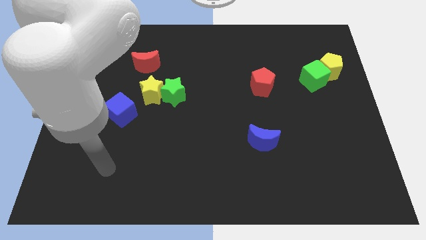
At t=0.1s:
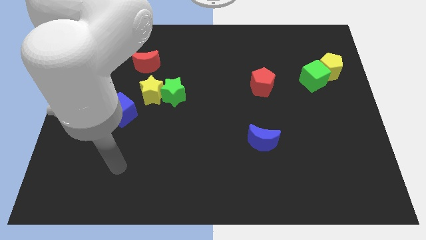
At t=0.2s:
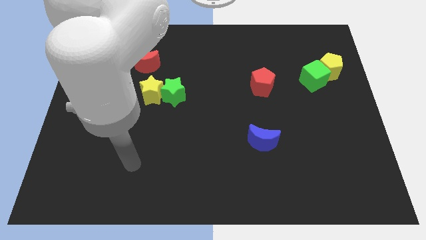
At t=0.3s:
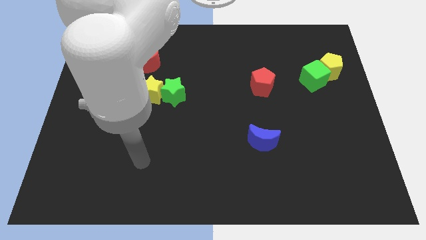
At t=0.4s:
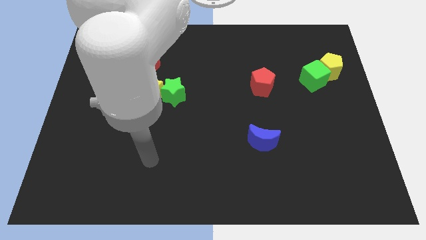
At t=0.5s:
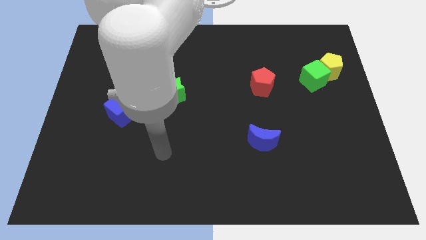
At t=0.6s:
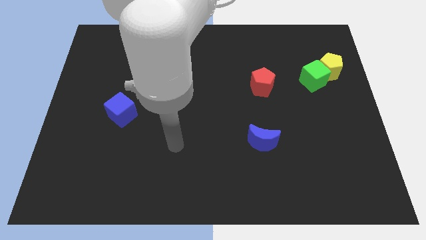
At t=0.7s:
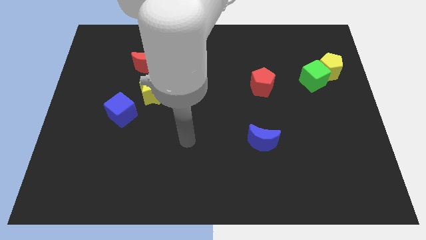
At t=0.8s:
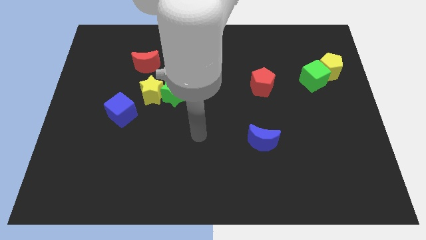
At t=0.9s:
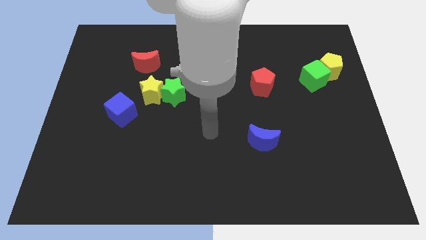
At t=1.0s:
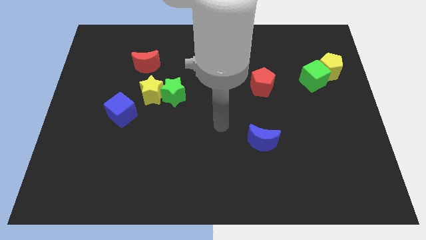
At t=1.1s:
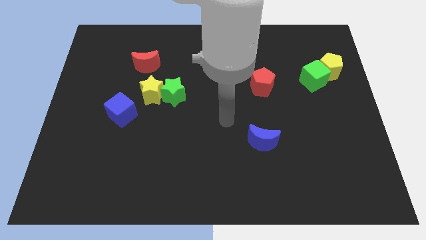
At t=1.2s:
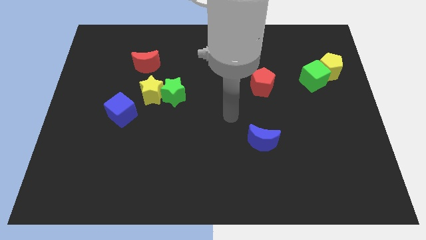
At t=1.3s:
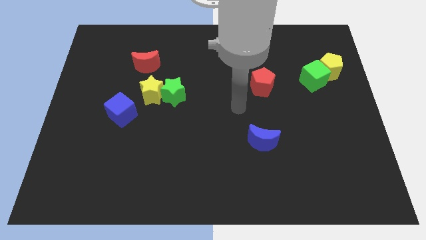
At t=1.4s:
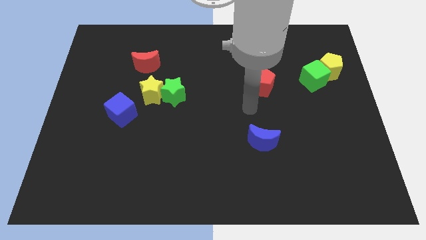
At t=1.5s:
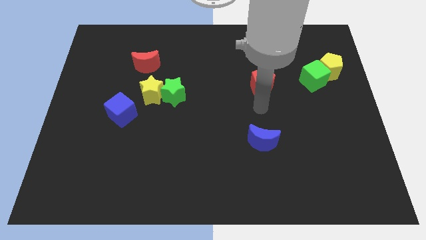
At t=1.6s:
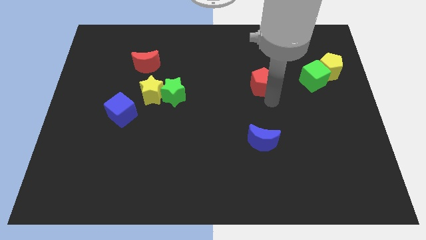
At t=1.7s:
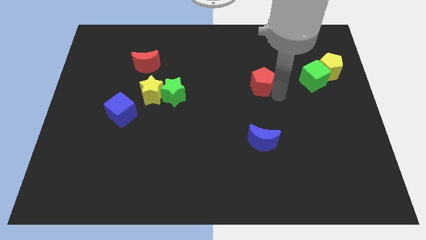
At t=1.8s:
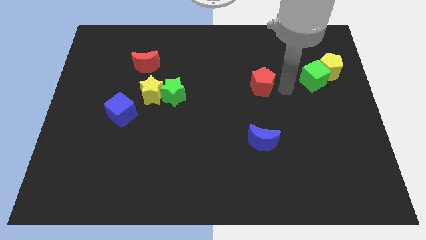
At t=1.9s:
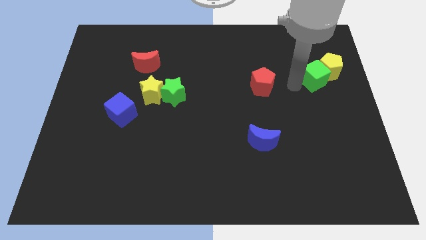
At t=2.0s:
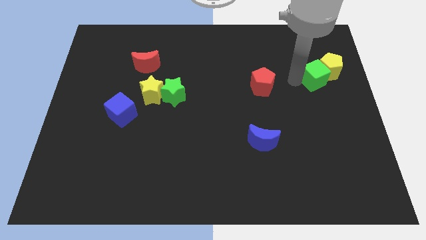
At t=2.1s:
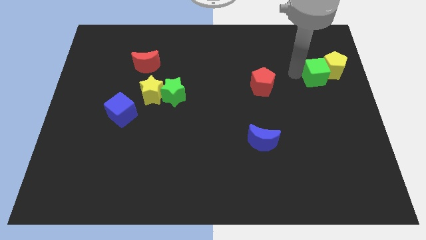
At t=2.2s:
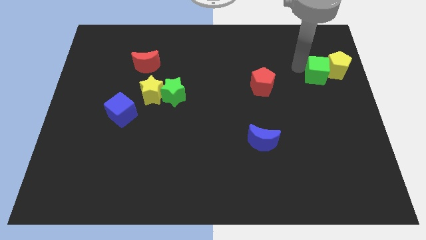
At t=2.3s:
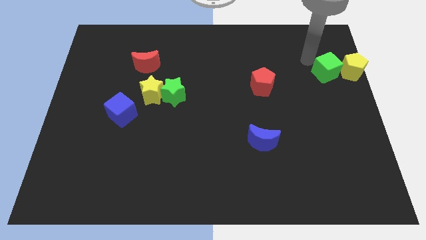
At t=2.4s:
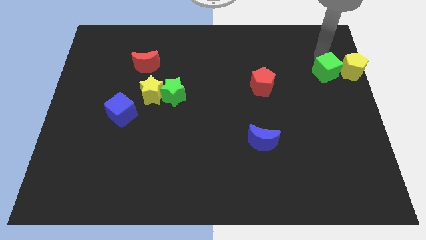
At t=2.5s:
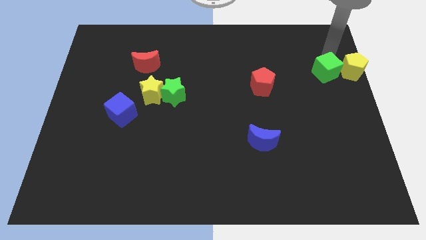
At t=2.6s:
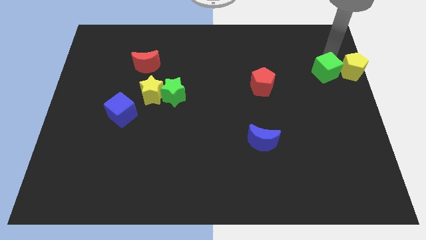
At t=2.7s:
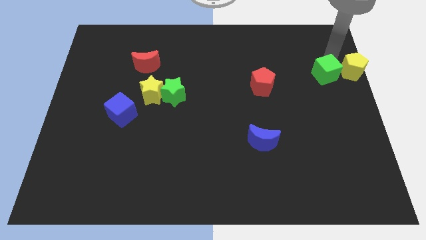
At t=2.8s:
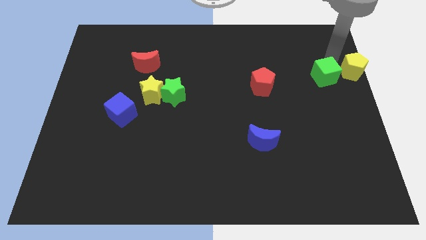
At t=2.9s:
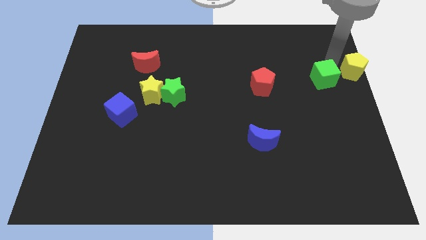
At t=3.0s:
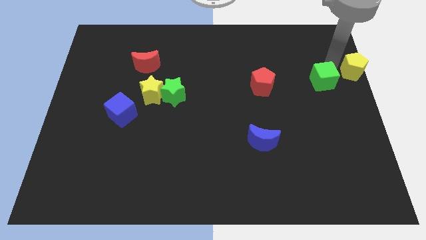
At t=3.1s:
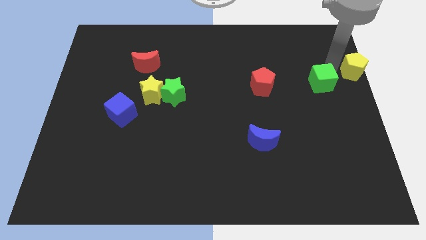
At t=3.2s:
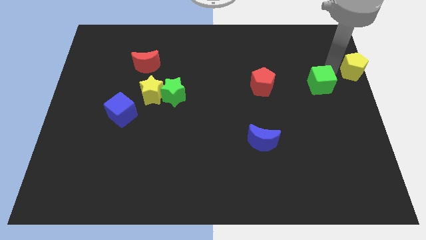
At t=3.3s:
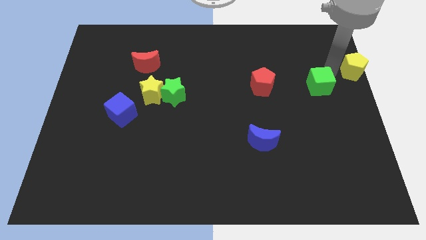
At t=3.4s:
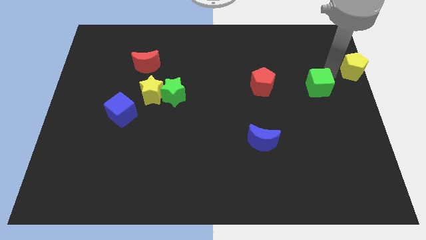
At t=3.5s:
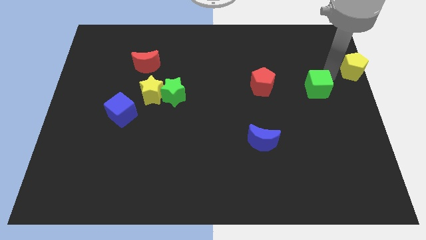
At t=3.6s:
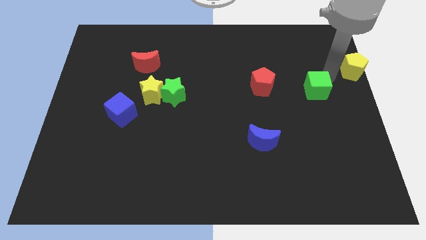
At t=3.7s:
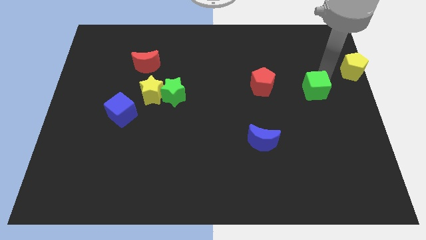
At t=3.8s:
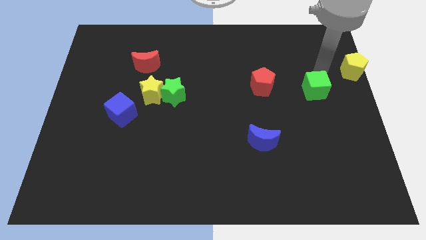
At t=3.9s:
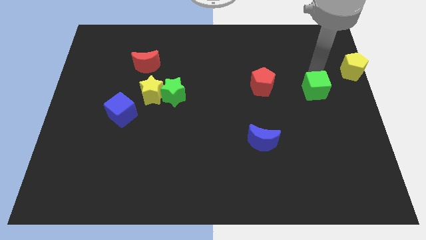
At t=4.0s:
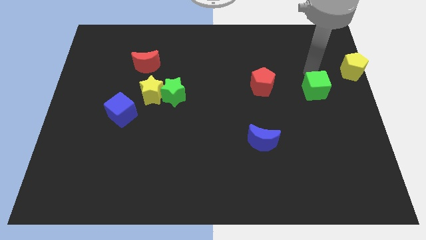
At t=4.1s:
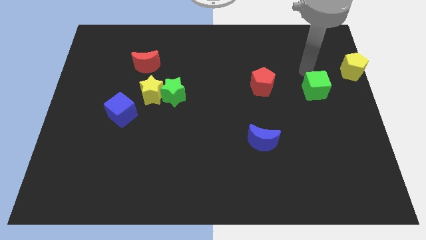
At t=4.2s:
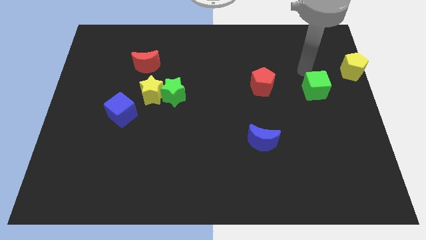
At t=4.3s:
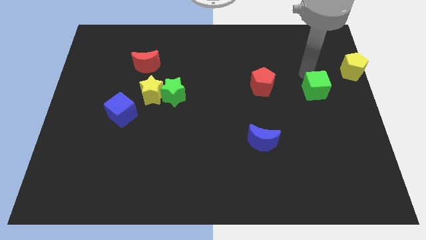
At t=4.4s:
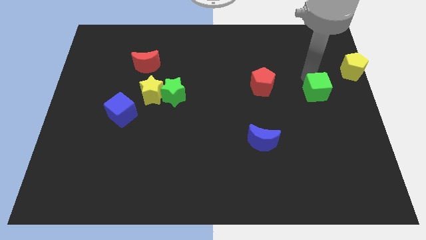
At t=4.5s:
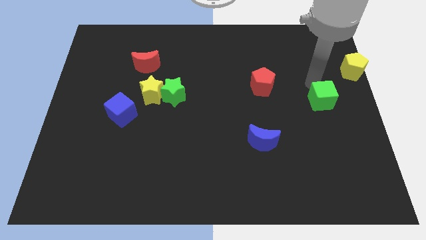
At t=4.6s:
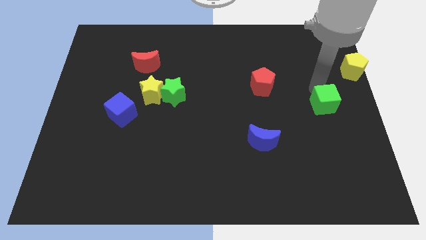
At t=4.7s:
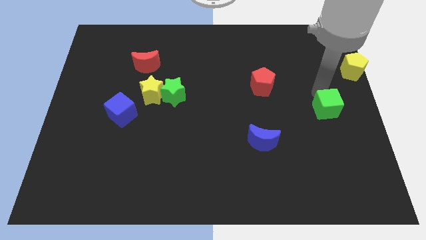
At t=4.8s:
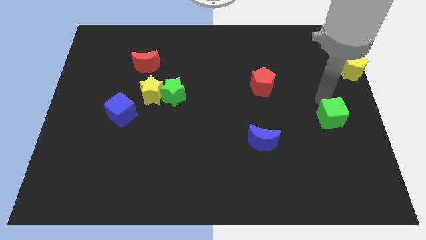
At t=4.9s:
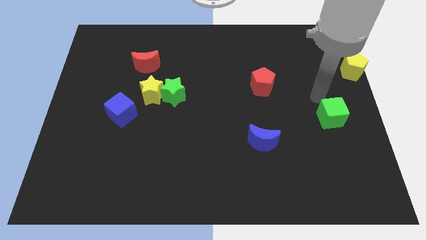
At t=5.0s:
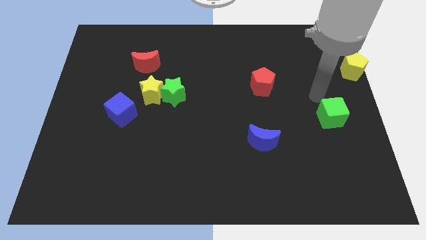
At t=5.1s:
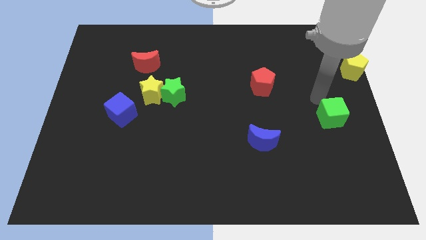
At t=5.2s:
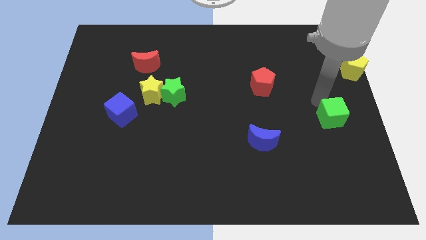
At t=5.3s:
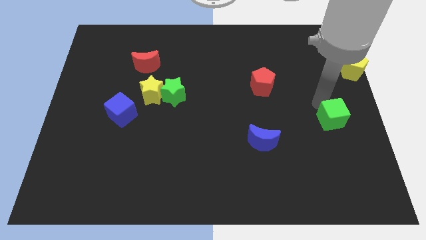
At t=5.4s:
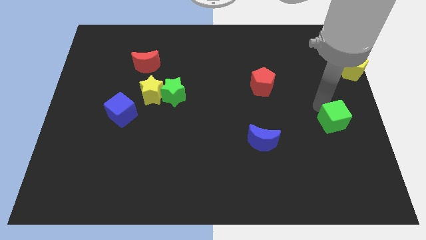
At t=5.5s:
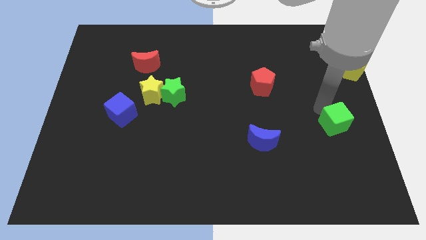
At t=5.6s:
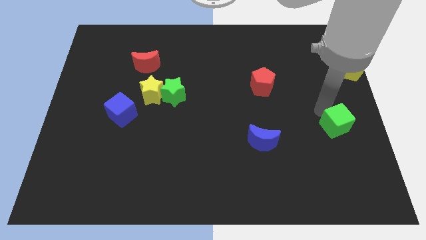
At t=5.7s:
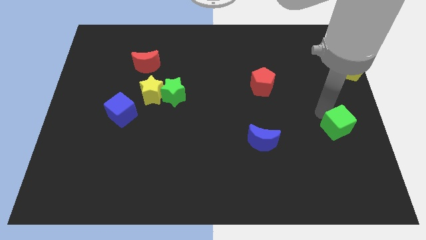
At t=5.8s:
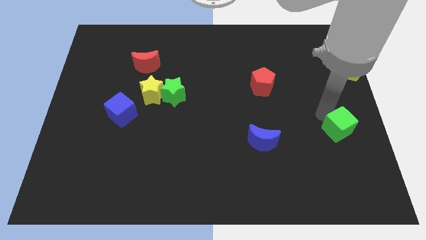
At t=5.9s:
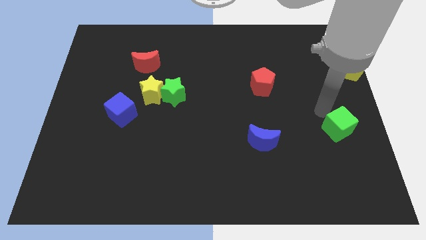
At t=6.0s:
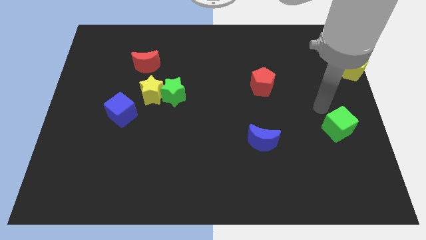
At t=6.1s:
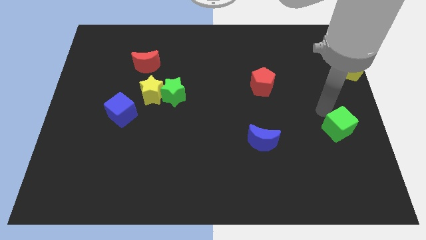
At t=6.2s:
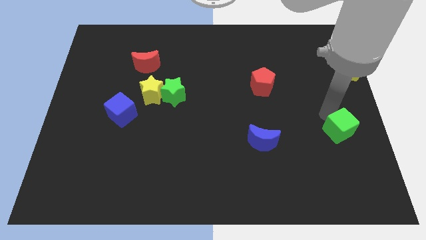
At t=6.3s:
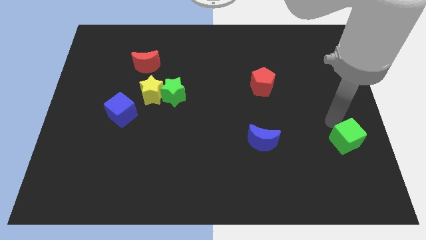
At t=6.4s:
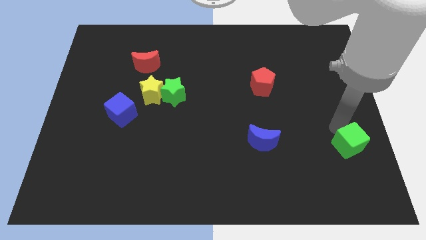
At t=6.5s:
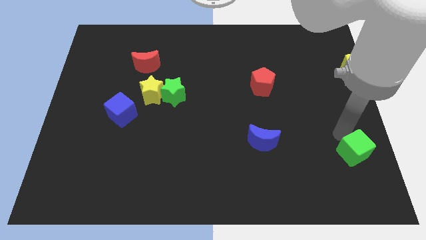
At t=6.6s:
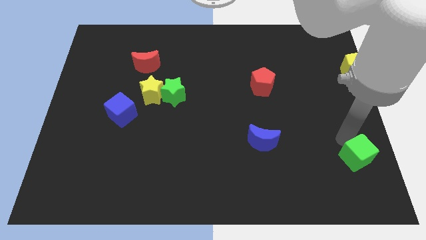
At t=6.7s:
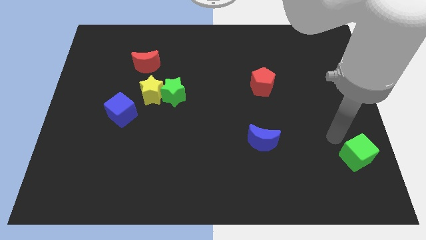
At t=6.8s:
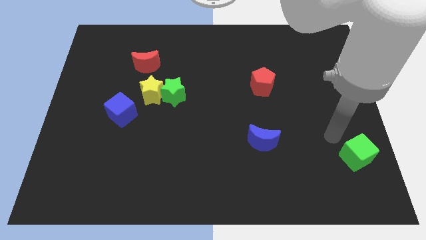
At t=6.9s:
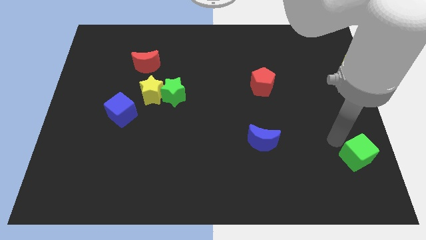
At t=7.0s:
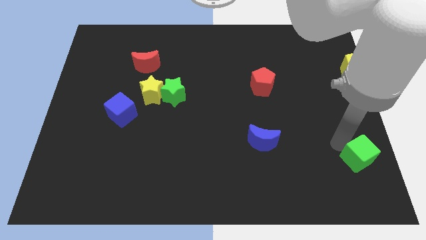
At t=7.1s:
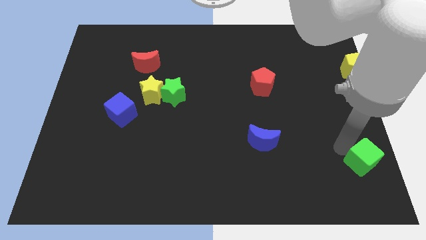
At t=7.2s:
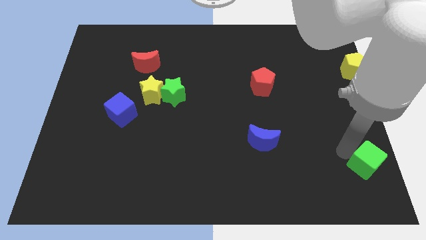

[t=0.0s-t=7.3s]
put the green cube to the bottom right
